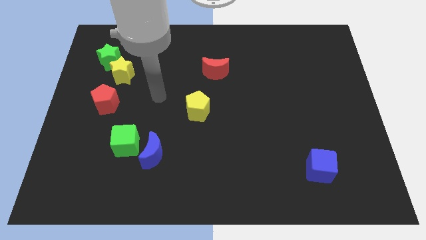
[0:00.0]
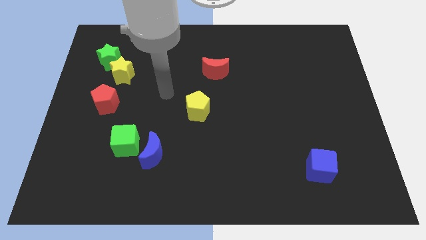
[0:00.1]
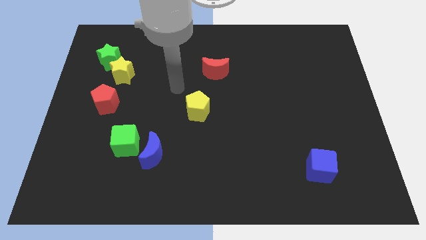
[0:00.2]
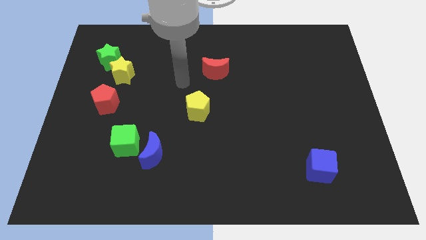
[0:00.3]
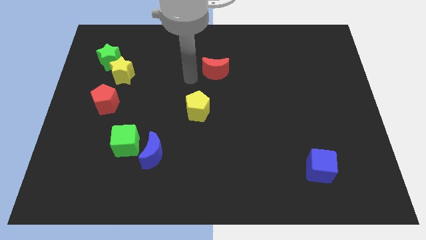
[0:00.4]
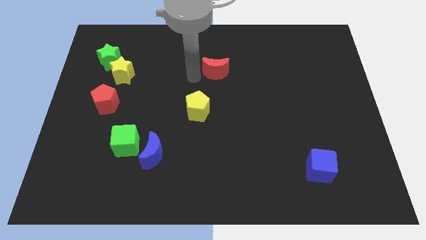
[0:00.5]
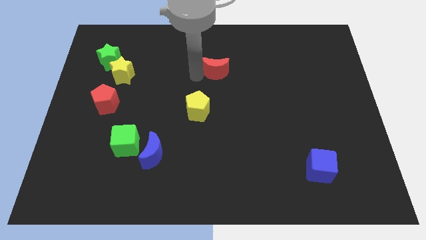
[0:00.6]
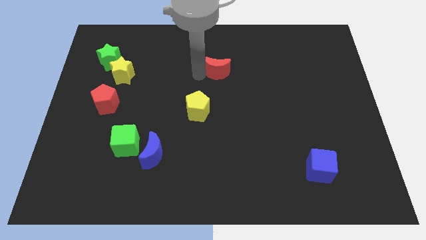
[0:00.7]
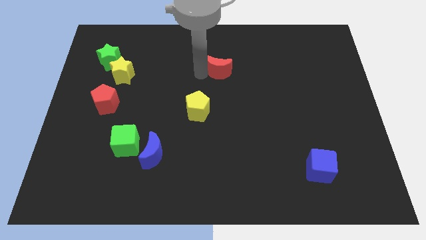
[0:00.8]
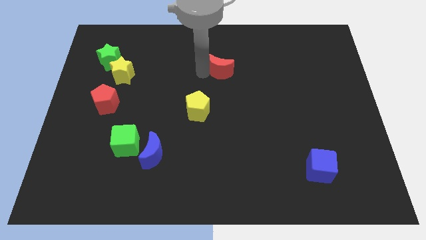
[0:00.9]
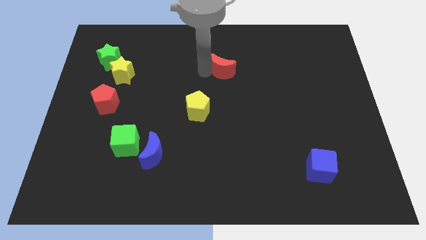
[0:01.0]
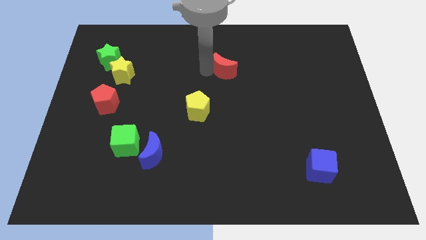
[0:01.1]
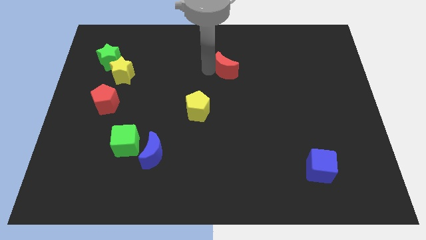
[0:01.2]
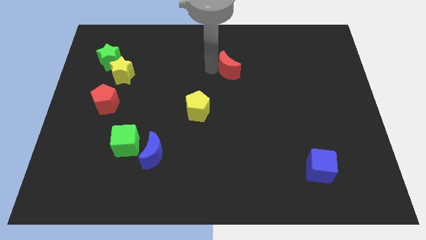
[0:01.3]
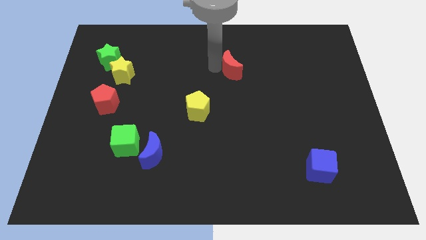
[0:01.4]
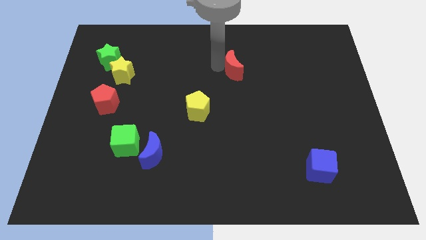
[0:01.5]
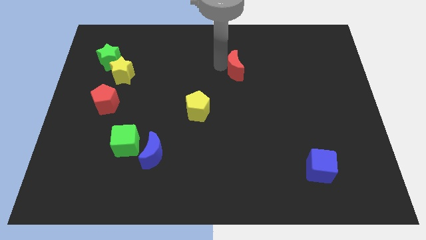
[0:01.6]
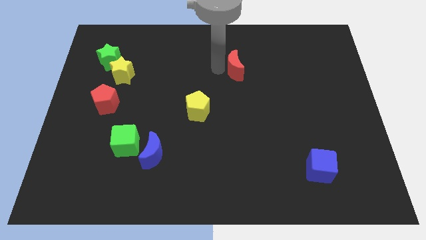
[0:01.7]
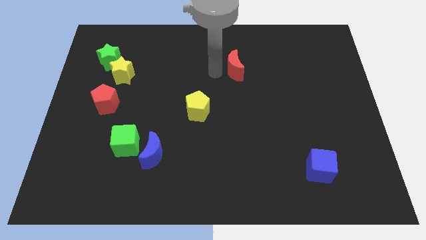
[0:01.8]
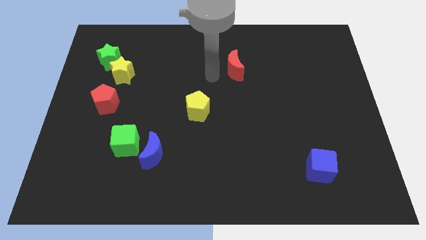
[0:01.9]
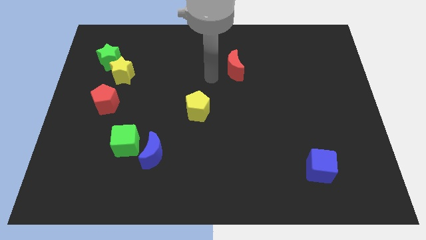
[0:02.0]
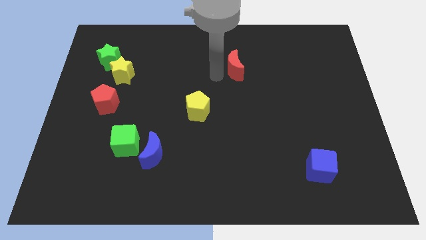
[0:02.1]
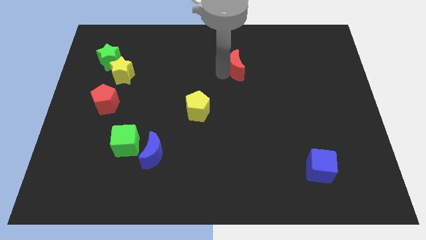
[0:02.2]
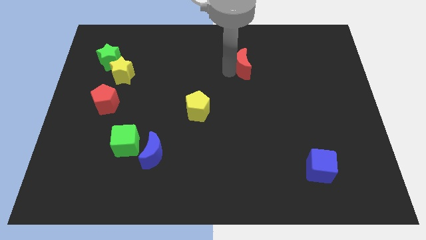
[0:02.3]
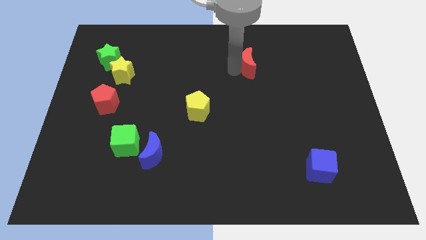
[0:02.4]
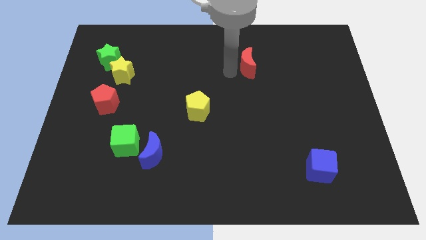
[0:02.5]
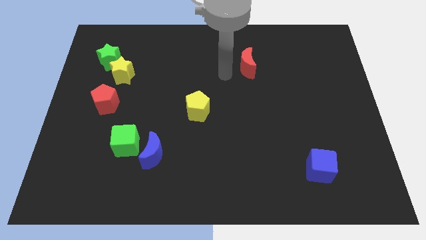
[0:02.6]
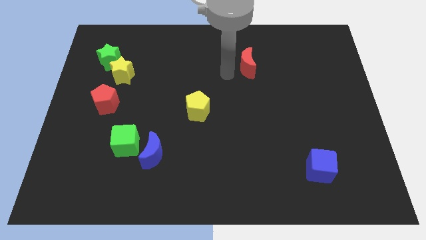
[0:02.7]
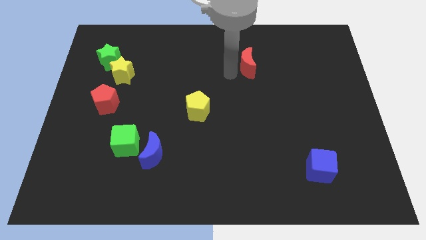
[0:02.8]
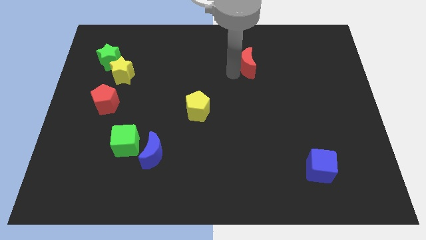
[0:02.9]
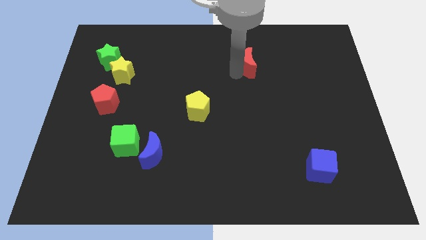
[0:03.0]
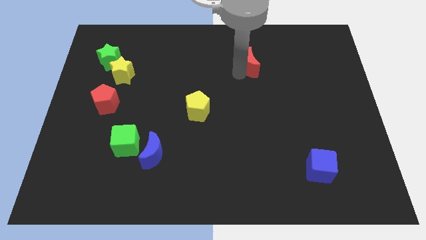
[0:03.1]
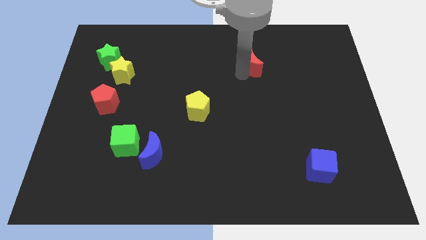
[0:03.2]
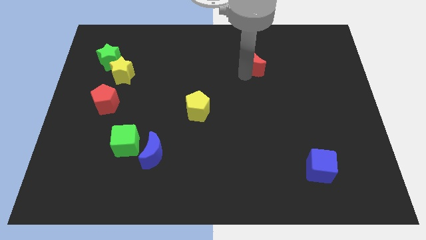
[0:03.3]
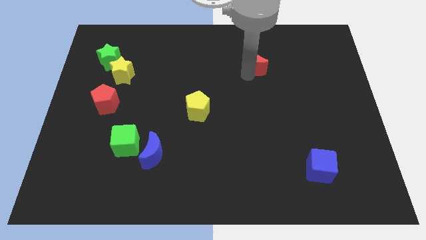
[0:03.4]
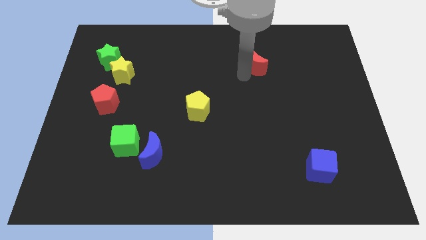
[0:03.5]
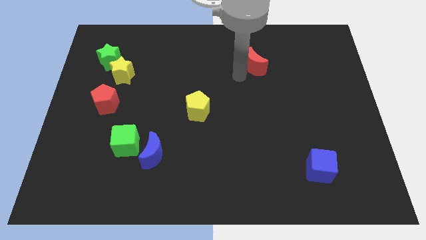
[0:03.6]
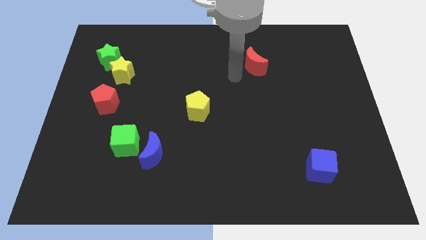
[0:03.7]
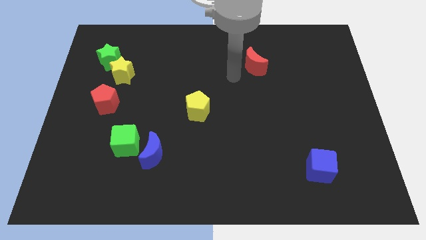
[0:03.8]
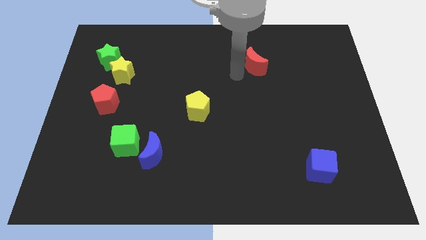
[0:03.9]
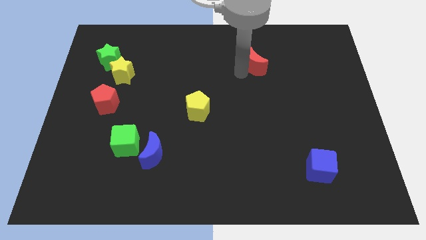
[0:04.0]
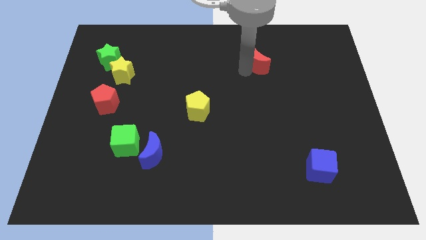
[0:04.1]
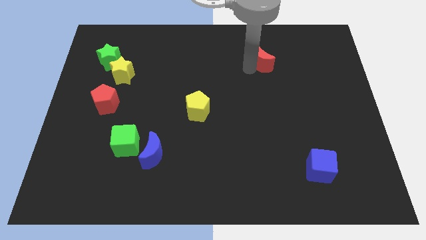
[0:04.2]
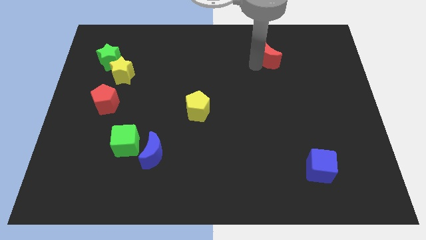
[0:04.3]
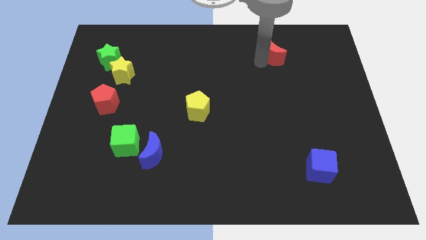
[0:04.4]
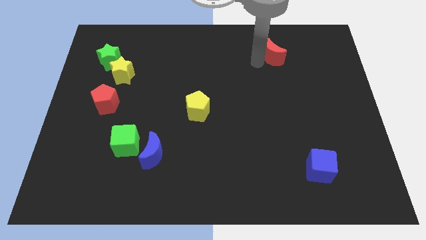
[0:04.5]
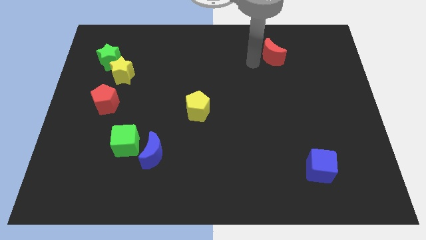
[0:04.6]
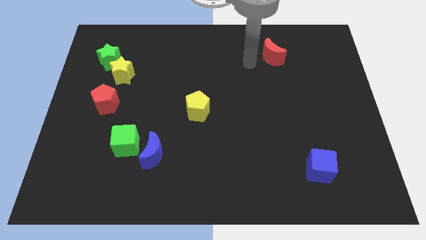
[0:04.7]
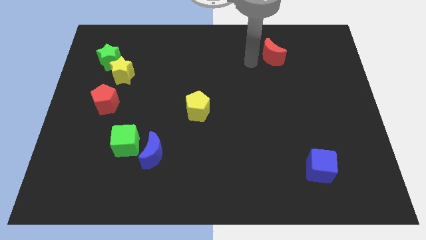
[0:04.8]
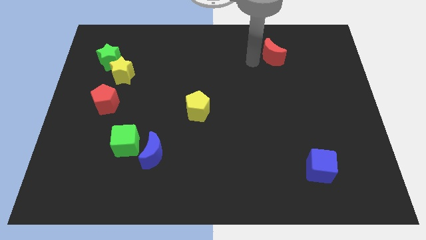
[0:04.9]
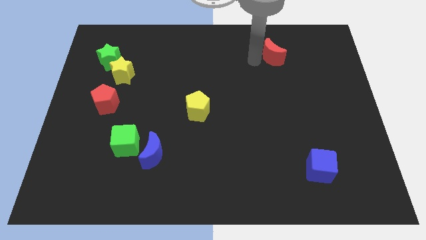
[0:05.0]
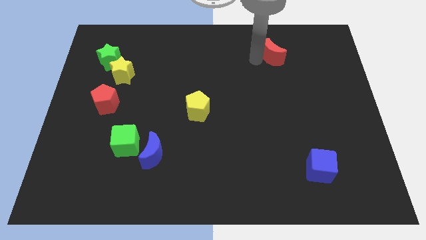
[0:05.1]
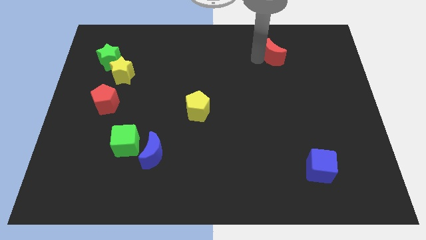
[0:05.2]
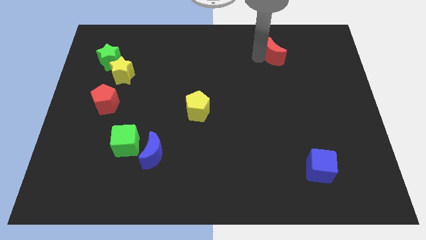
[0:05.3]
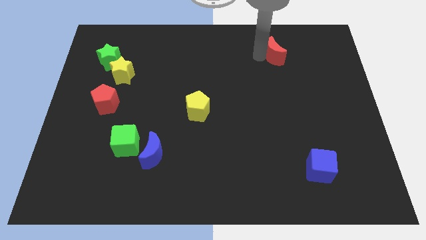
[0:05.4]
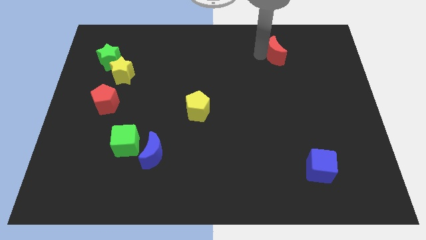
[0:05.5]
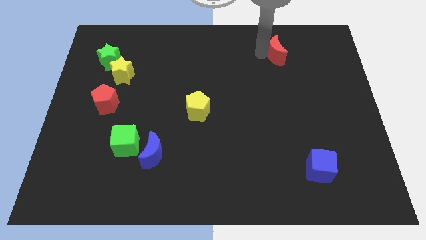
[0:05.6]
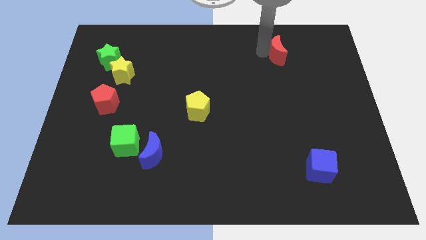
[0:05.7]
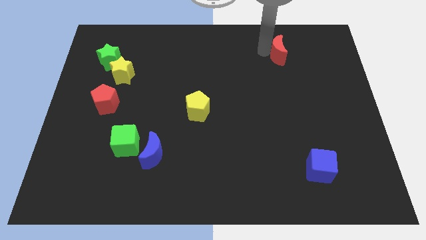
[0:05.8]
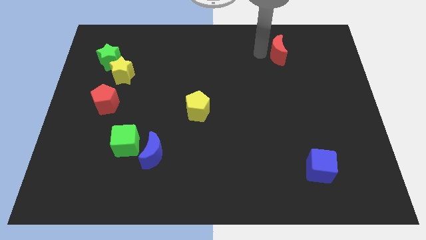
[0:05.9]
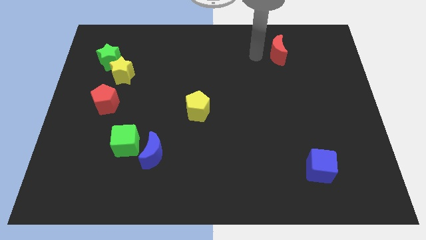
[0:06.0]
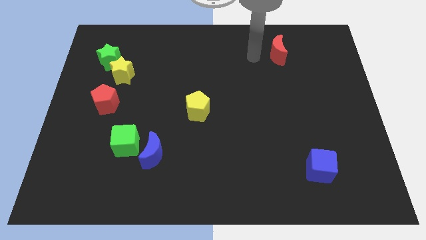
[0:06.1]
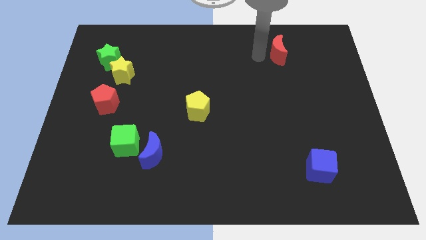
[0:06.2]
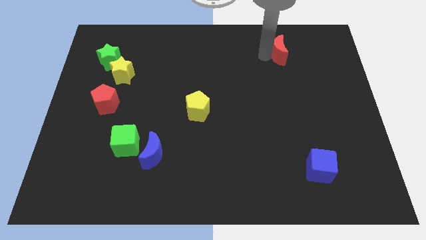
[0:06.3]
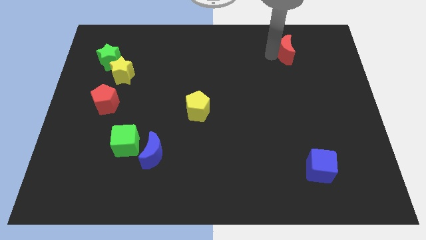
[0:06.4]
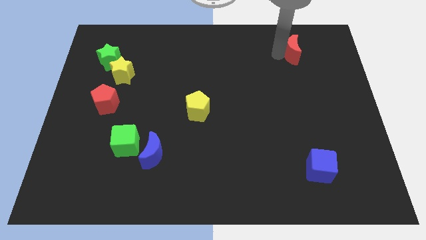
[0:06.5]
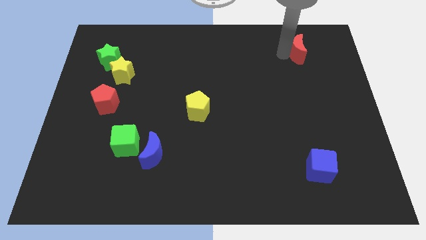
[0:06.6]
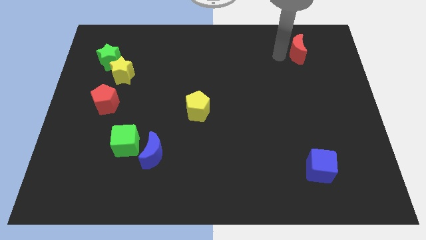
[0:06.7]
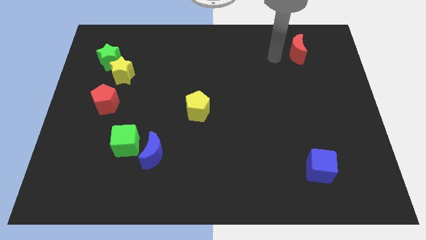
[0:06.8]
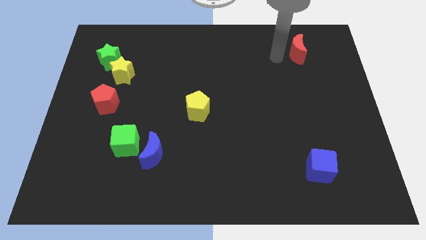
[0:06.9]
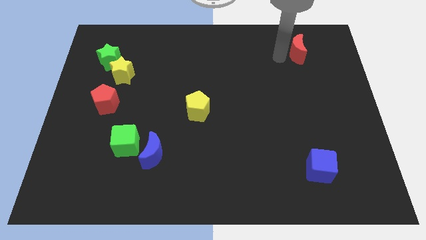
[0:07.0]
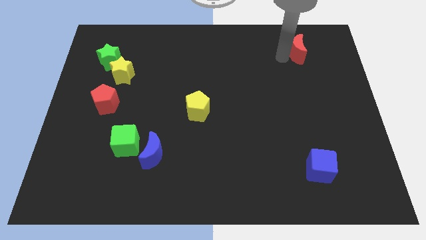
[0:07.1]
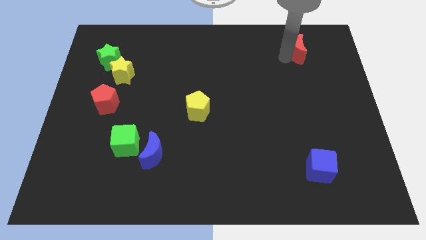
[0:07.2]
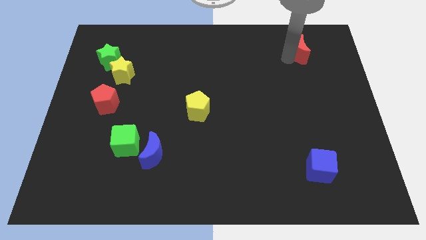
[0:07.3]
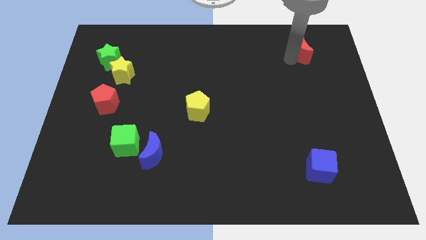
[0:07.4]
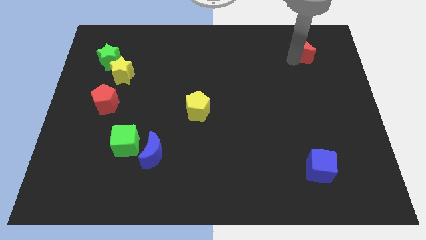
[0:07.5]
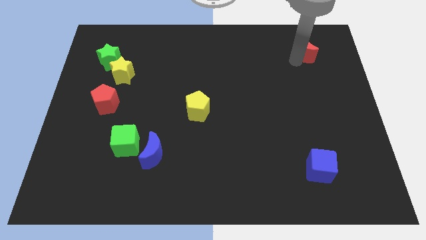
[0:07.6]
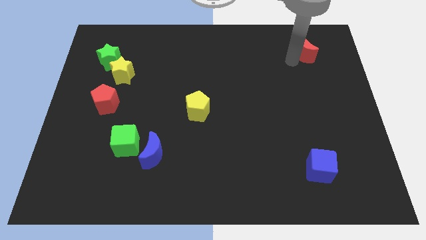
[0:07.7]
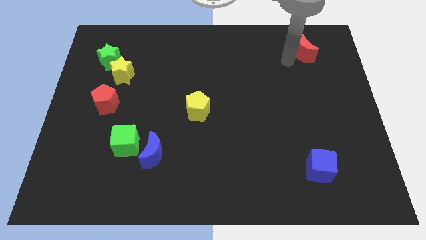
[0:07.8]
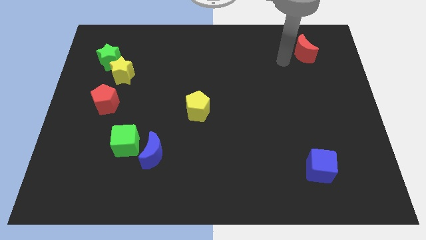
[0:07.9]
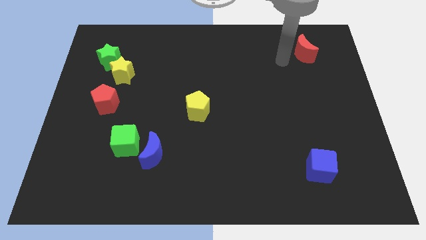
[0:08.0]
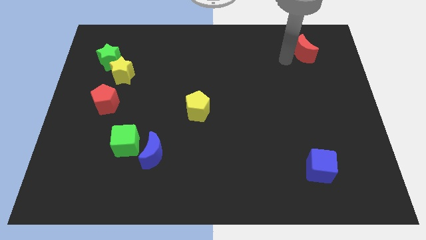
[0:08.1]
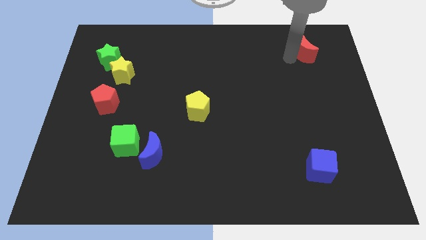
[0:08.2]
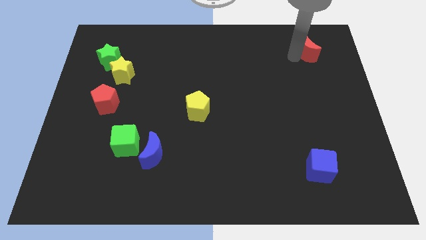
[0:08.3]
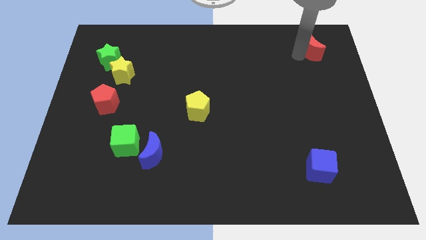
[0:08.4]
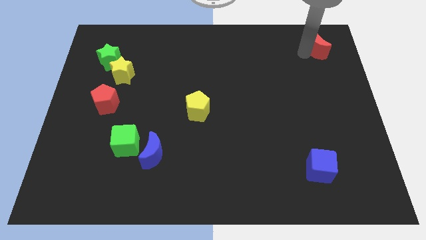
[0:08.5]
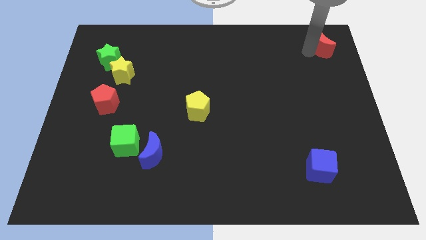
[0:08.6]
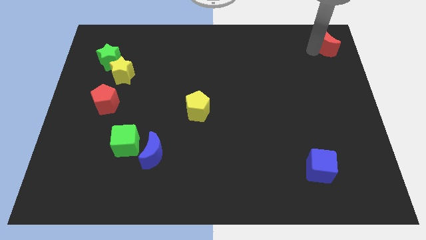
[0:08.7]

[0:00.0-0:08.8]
move the red moon to the top right of the board
